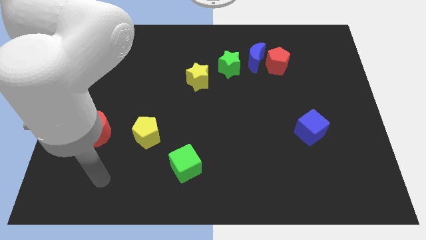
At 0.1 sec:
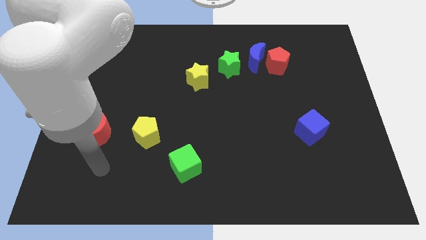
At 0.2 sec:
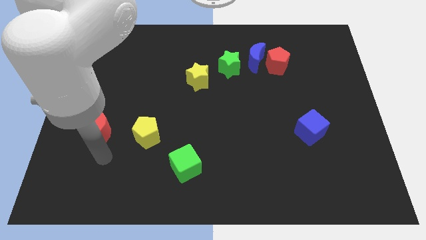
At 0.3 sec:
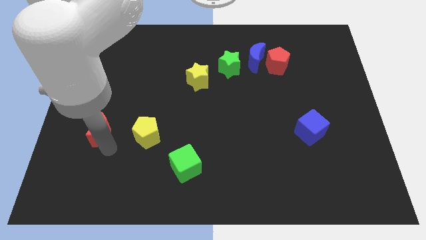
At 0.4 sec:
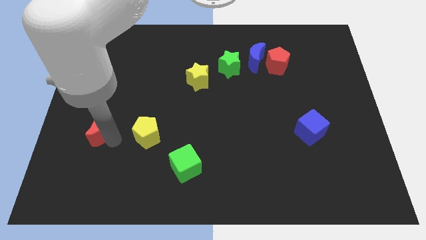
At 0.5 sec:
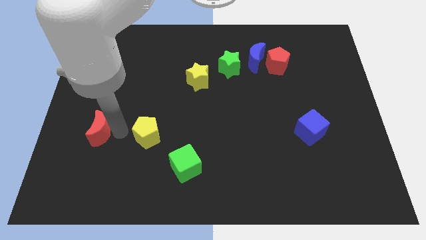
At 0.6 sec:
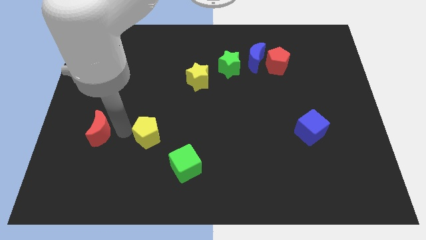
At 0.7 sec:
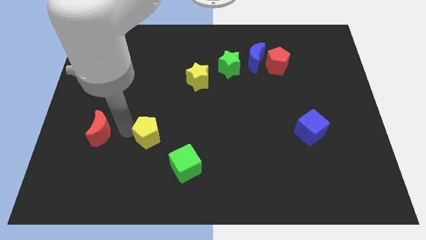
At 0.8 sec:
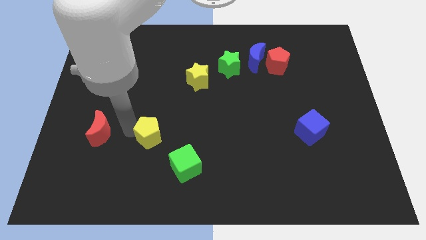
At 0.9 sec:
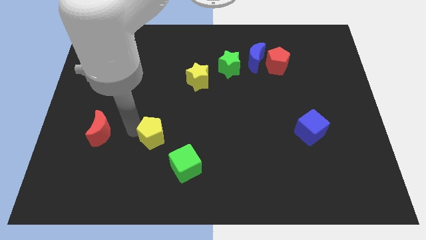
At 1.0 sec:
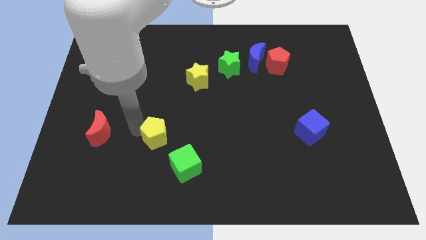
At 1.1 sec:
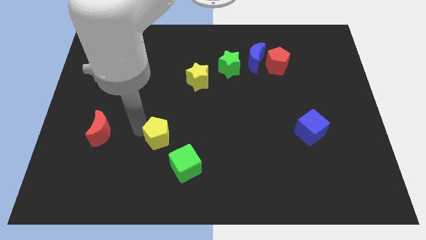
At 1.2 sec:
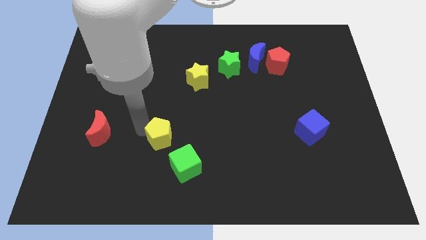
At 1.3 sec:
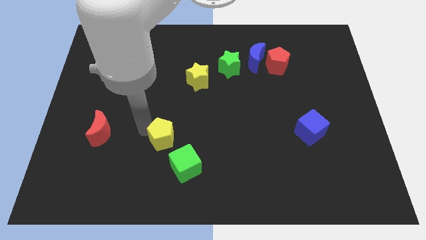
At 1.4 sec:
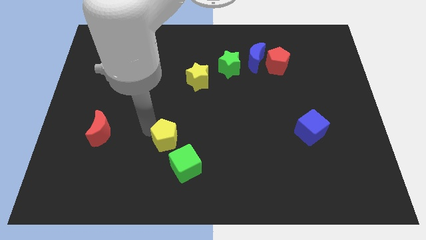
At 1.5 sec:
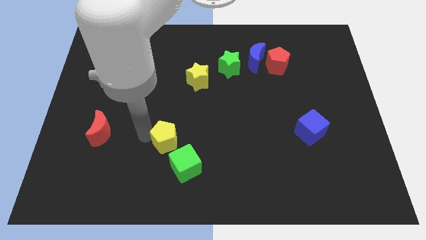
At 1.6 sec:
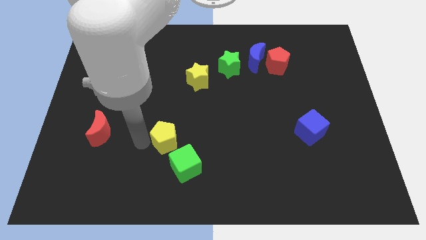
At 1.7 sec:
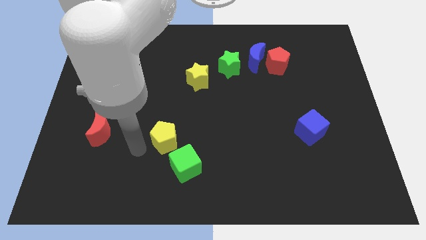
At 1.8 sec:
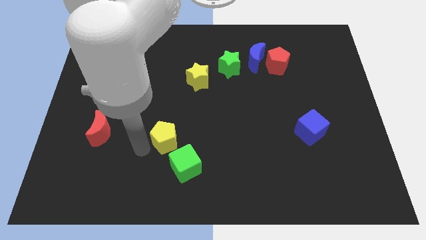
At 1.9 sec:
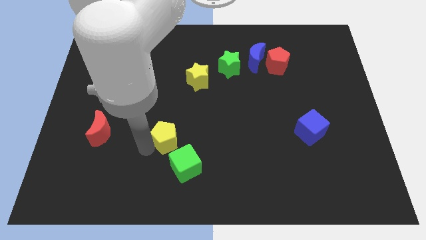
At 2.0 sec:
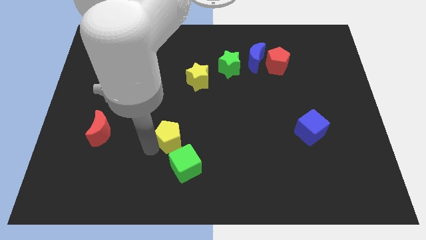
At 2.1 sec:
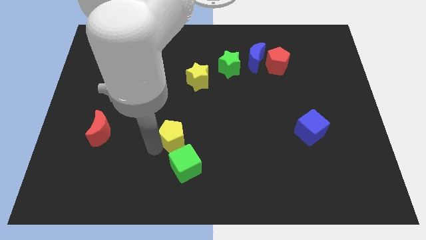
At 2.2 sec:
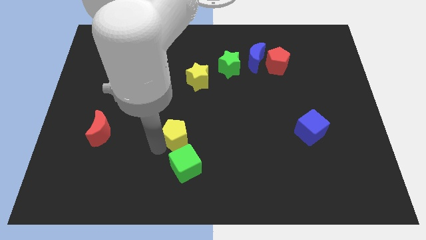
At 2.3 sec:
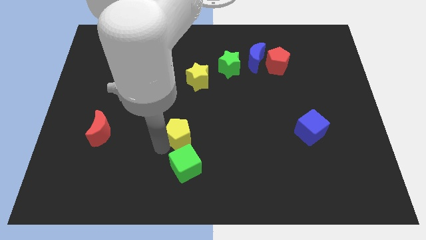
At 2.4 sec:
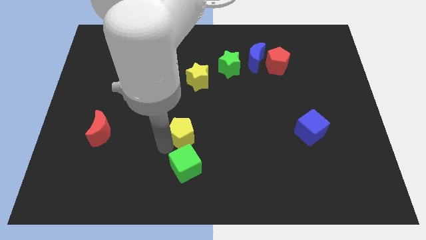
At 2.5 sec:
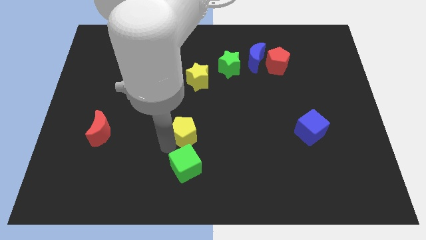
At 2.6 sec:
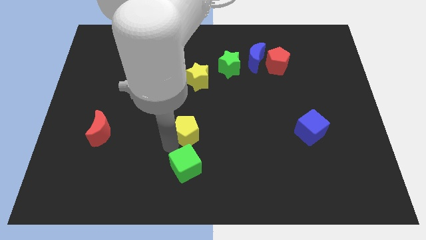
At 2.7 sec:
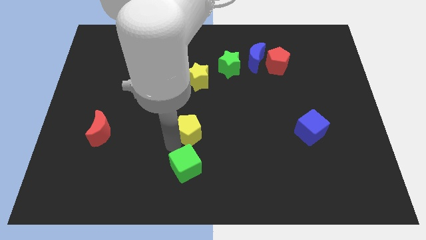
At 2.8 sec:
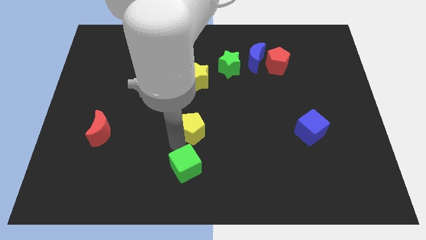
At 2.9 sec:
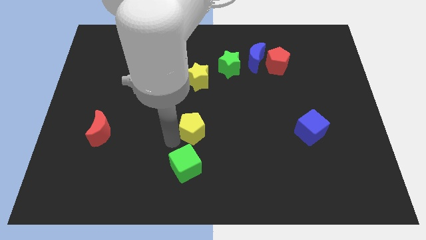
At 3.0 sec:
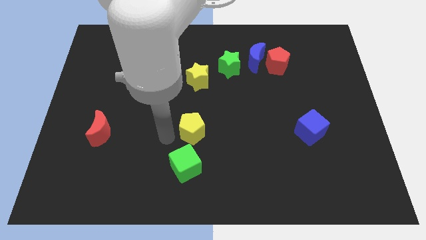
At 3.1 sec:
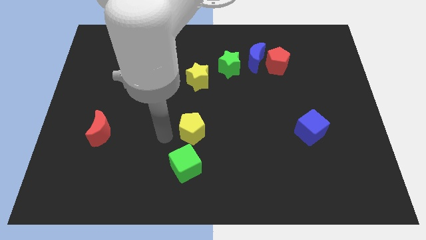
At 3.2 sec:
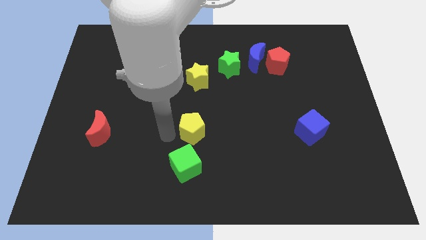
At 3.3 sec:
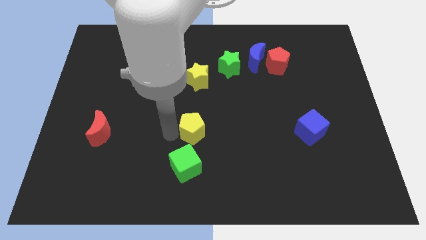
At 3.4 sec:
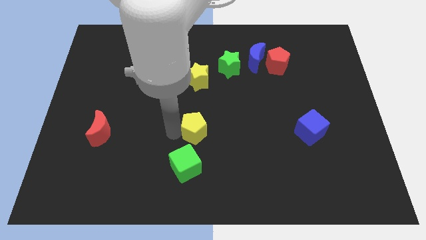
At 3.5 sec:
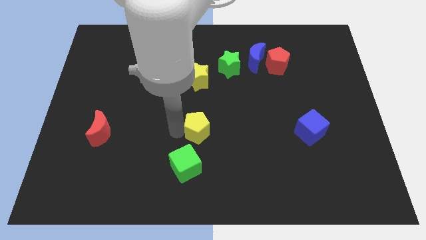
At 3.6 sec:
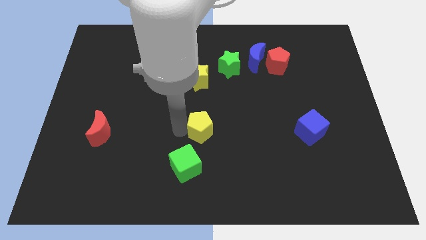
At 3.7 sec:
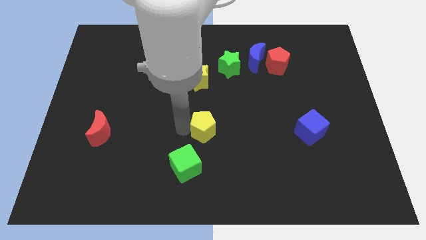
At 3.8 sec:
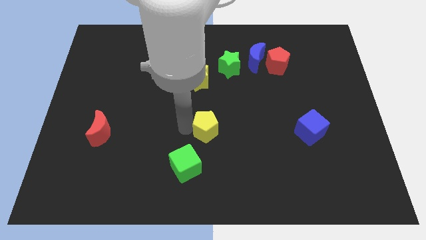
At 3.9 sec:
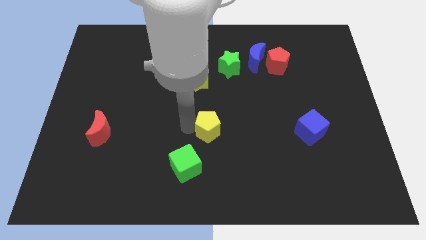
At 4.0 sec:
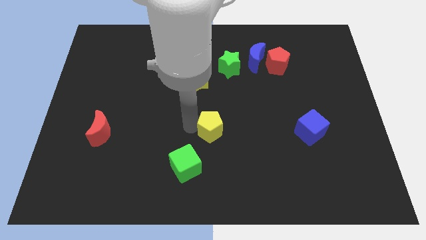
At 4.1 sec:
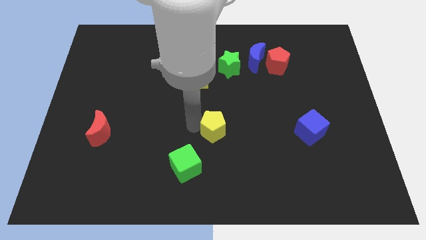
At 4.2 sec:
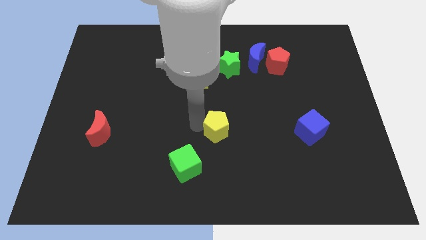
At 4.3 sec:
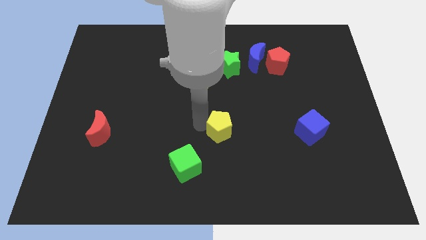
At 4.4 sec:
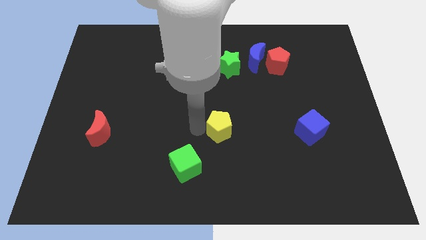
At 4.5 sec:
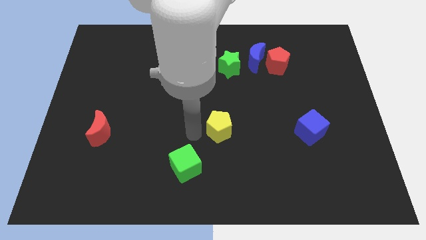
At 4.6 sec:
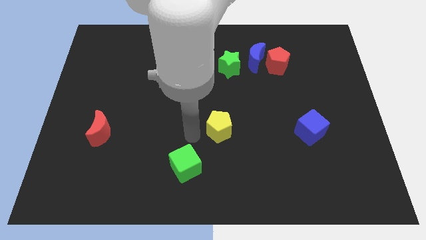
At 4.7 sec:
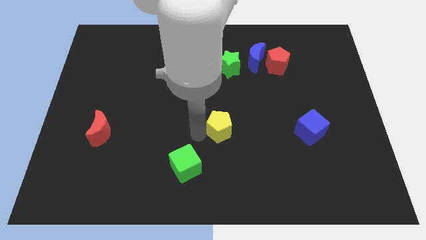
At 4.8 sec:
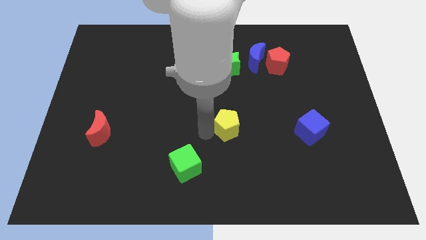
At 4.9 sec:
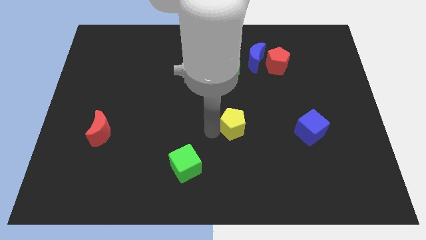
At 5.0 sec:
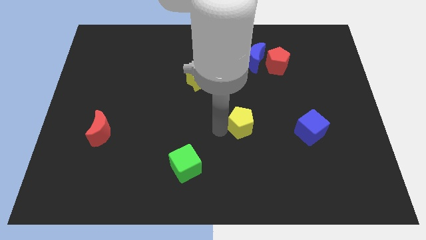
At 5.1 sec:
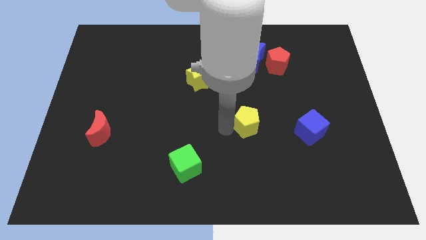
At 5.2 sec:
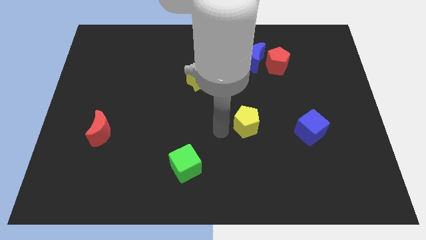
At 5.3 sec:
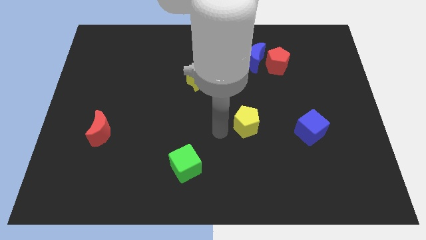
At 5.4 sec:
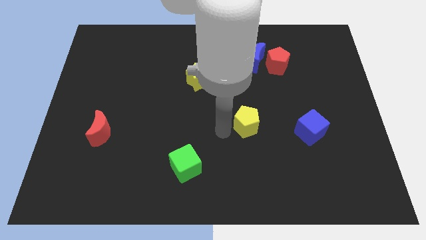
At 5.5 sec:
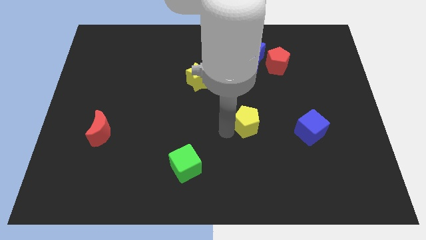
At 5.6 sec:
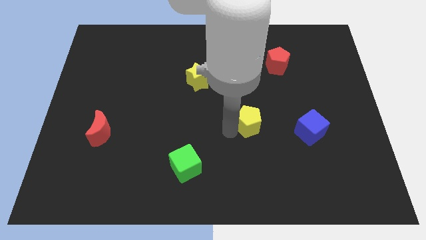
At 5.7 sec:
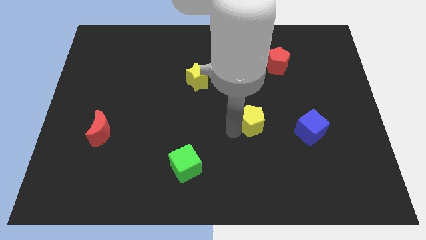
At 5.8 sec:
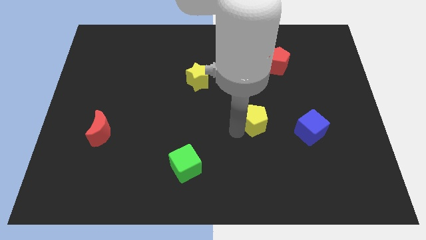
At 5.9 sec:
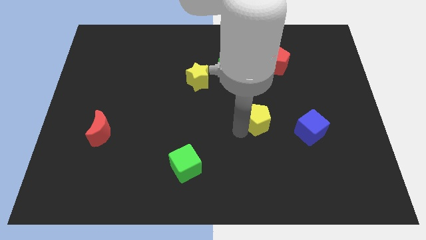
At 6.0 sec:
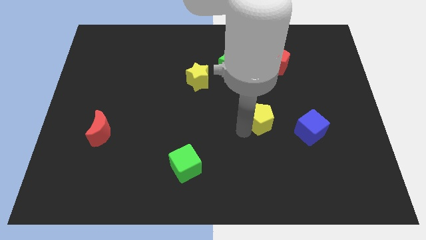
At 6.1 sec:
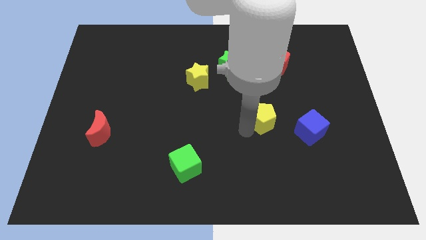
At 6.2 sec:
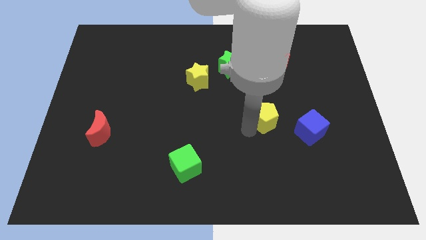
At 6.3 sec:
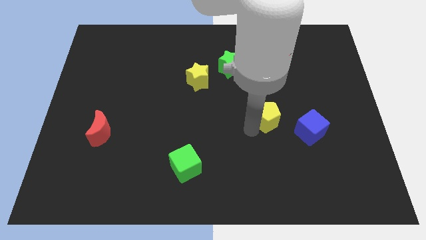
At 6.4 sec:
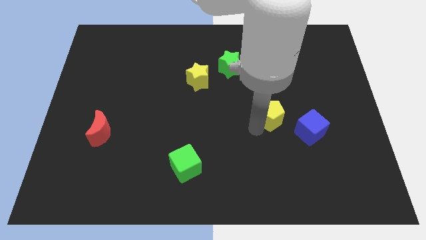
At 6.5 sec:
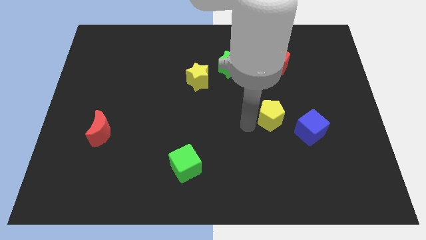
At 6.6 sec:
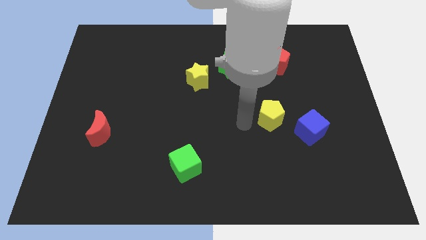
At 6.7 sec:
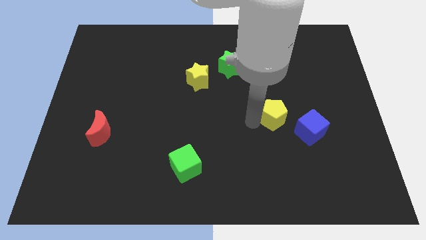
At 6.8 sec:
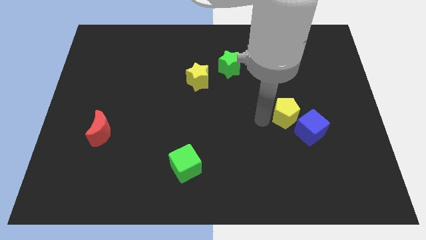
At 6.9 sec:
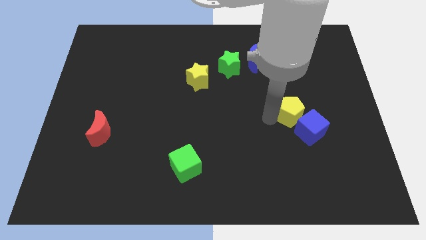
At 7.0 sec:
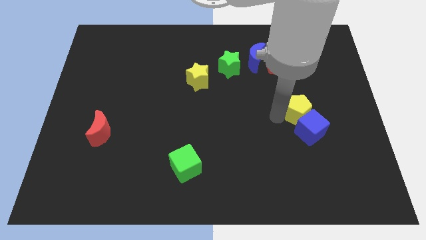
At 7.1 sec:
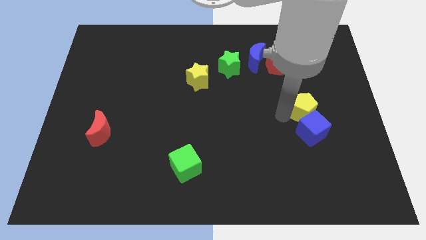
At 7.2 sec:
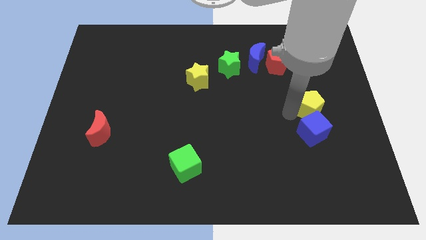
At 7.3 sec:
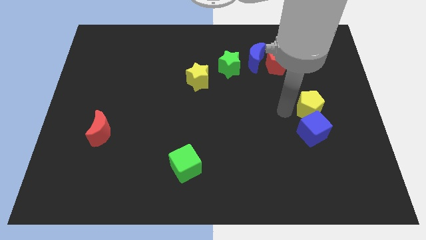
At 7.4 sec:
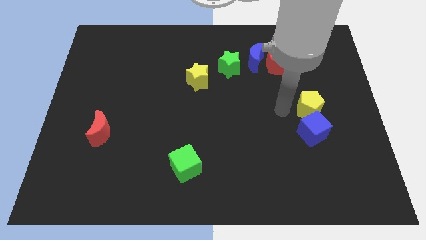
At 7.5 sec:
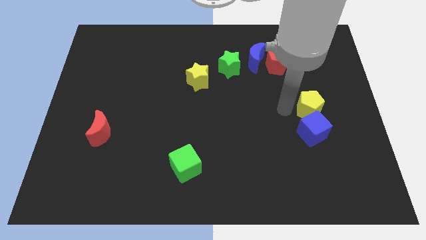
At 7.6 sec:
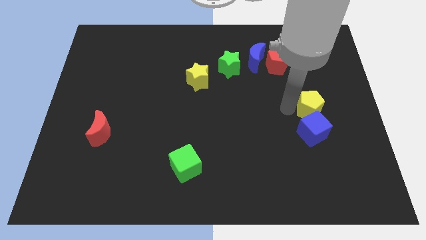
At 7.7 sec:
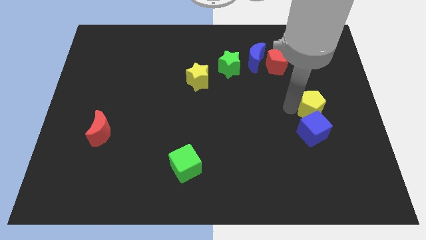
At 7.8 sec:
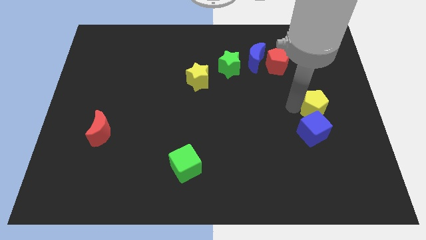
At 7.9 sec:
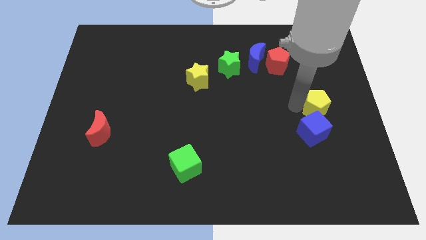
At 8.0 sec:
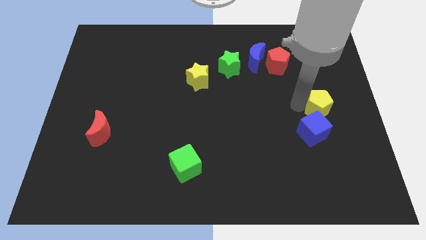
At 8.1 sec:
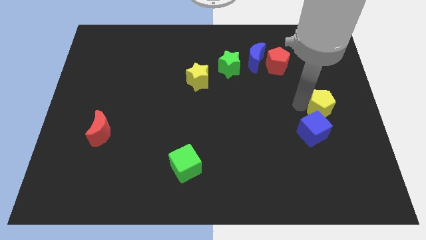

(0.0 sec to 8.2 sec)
slide the yellow pentagon to the right side
